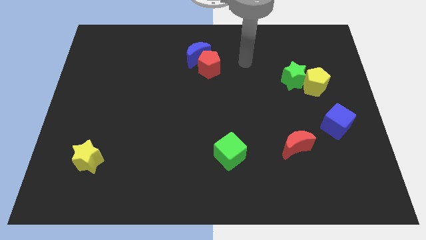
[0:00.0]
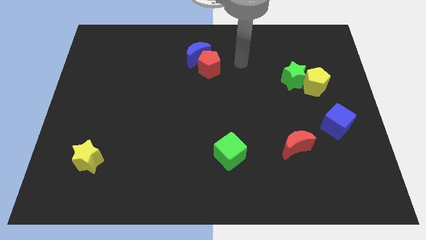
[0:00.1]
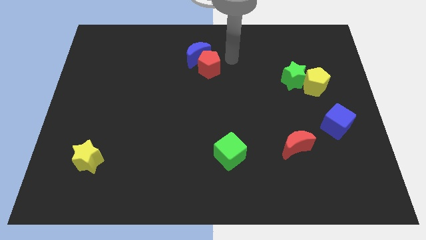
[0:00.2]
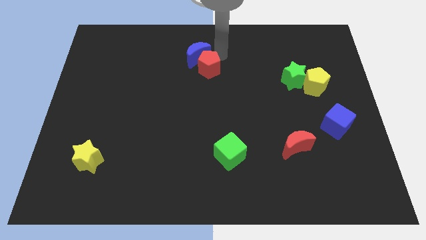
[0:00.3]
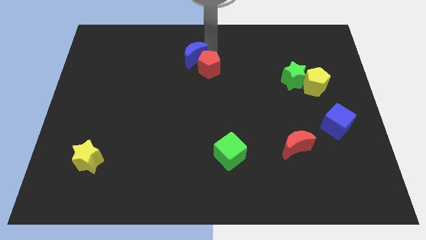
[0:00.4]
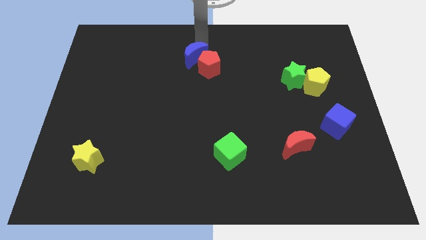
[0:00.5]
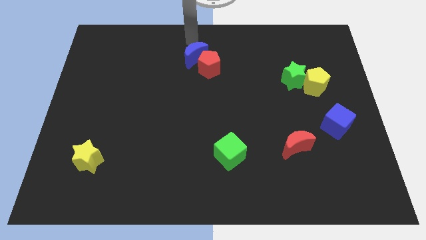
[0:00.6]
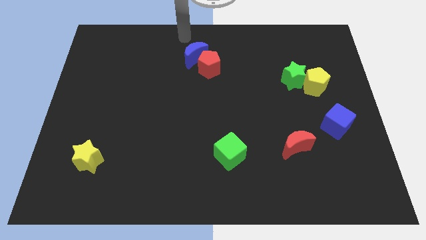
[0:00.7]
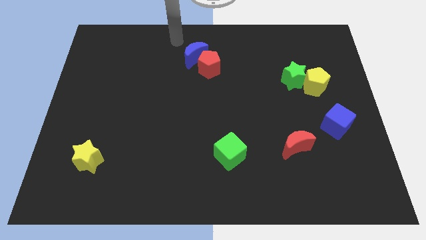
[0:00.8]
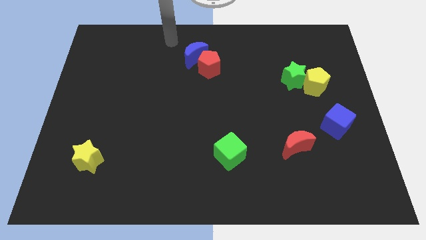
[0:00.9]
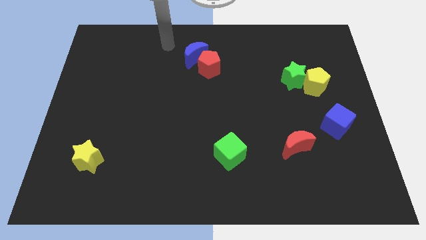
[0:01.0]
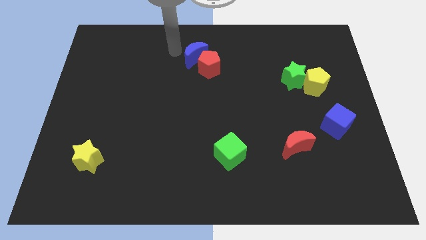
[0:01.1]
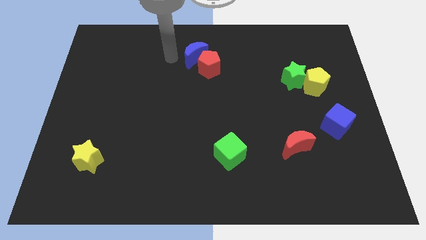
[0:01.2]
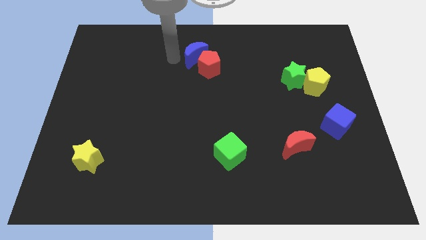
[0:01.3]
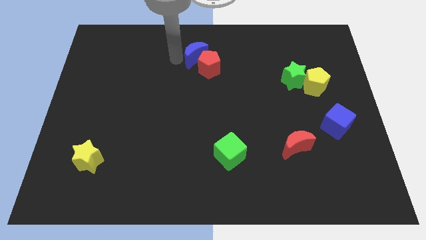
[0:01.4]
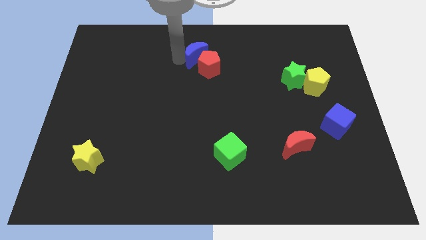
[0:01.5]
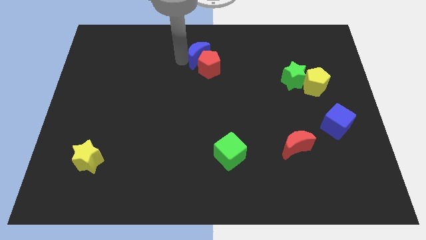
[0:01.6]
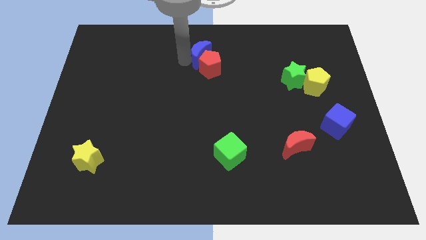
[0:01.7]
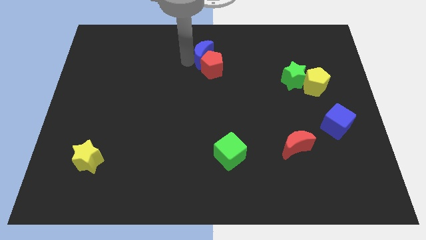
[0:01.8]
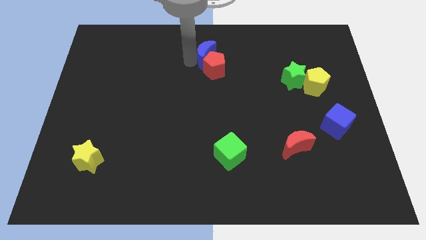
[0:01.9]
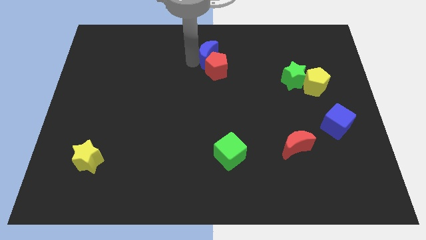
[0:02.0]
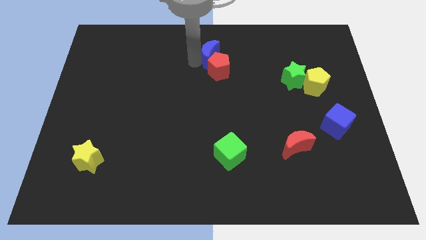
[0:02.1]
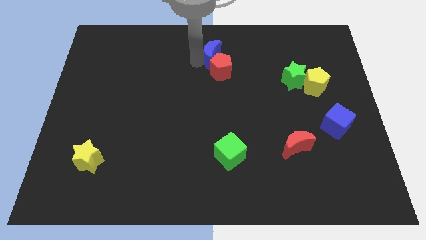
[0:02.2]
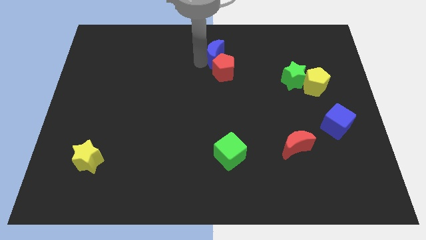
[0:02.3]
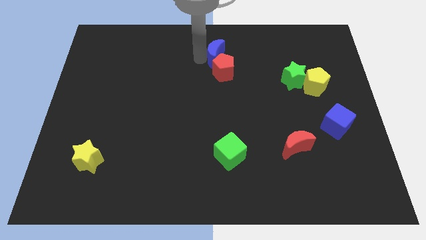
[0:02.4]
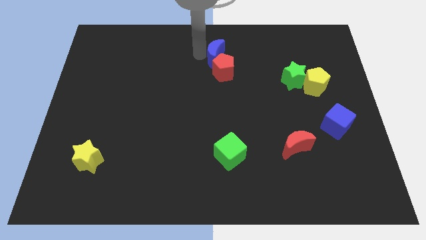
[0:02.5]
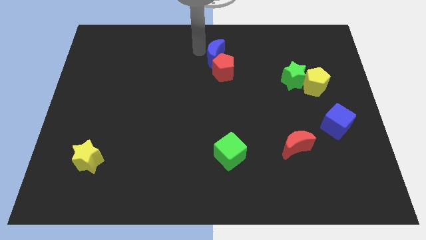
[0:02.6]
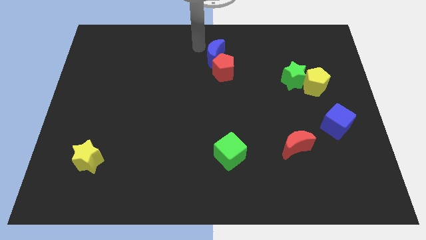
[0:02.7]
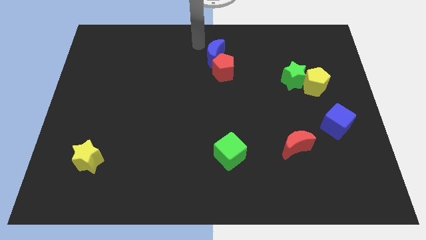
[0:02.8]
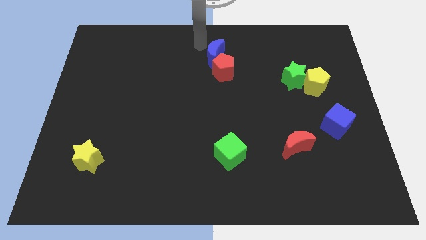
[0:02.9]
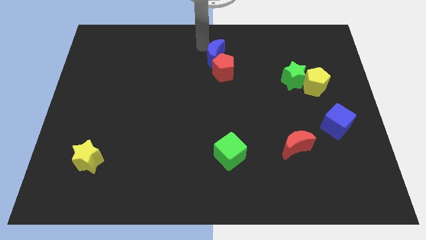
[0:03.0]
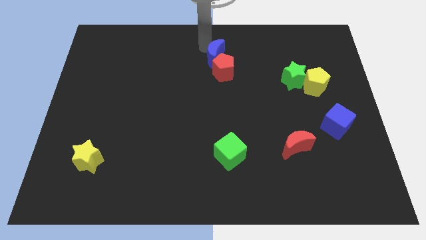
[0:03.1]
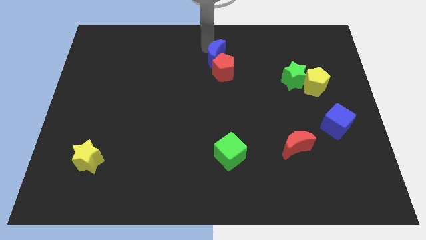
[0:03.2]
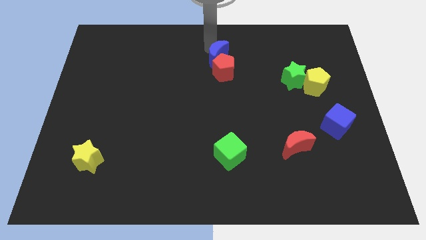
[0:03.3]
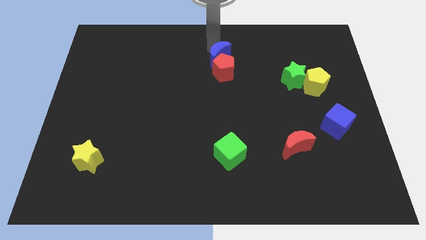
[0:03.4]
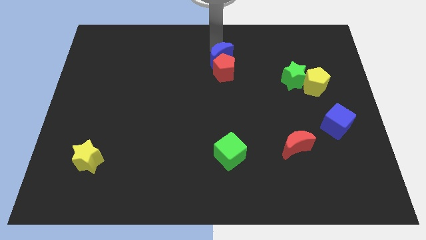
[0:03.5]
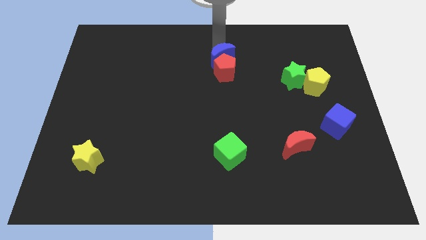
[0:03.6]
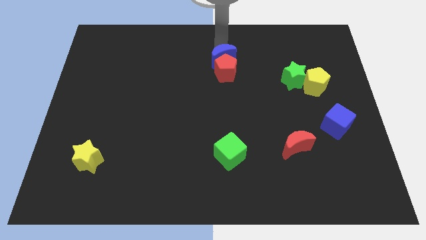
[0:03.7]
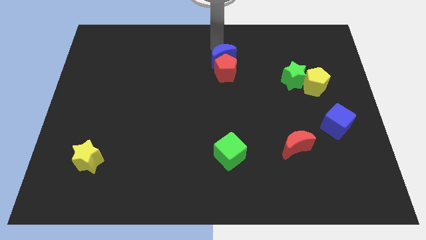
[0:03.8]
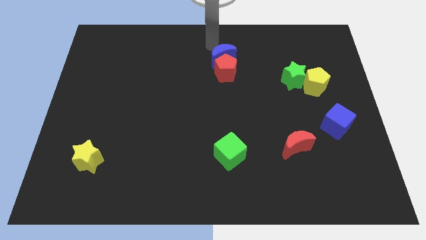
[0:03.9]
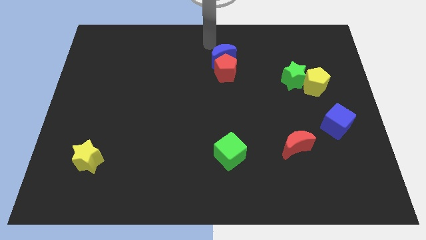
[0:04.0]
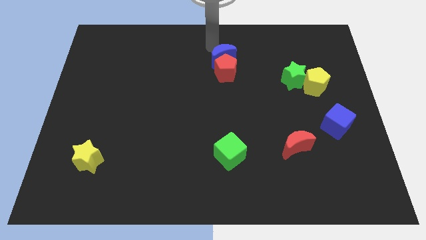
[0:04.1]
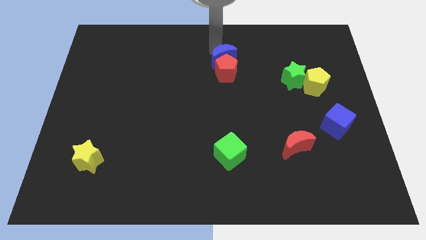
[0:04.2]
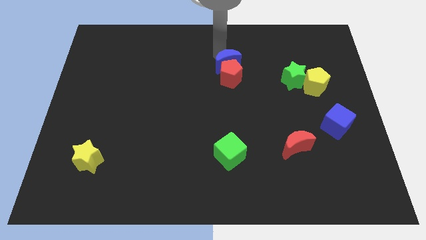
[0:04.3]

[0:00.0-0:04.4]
slide the blue moon a little bit downwards and right

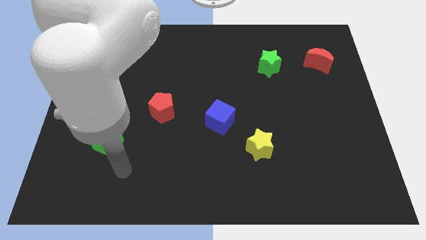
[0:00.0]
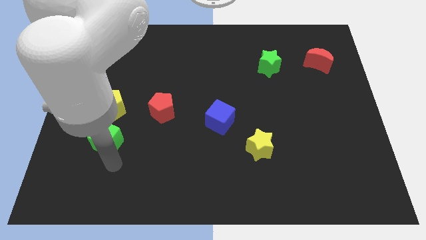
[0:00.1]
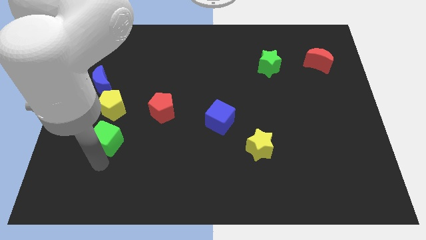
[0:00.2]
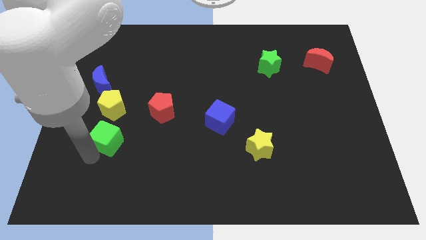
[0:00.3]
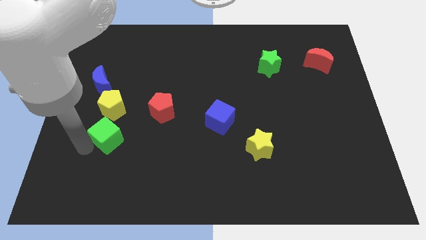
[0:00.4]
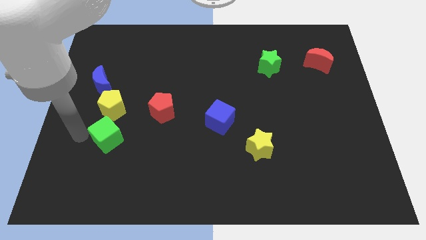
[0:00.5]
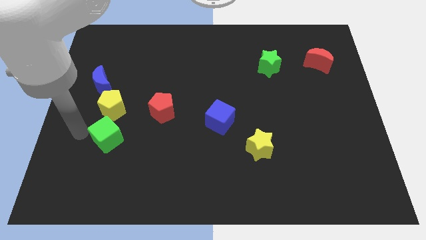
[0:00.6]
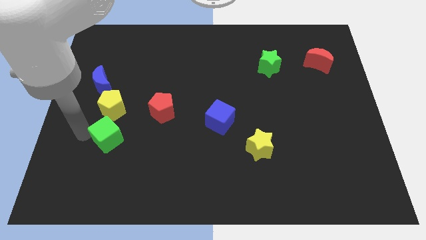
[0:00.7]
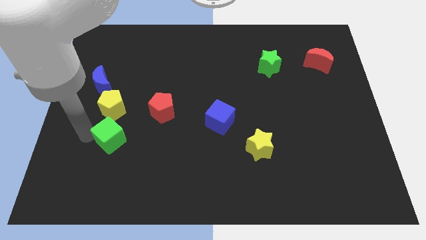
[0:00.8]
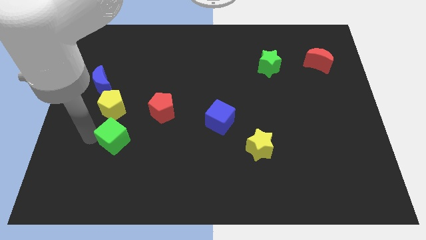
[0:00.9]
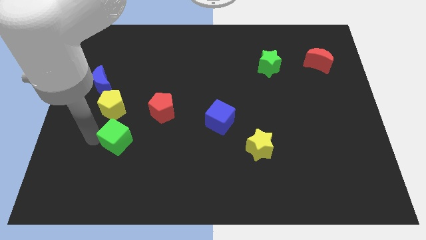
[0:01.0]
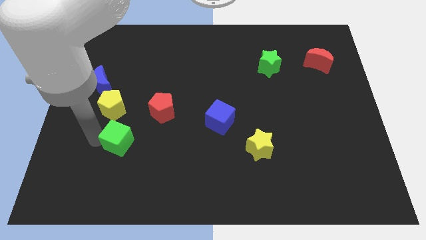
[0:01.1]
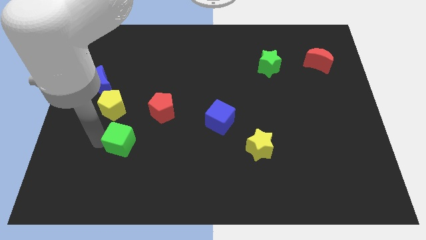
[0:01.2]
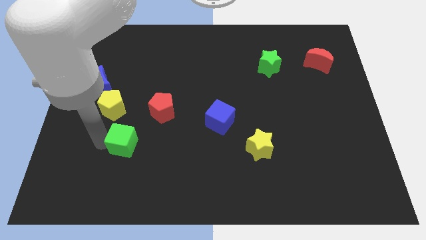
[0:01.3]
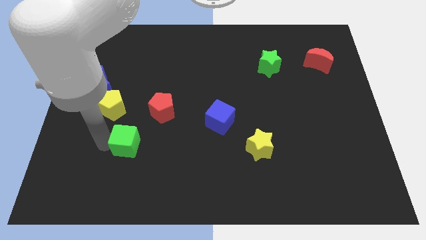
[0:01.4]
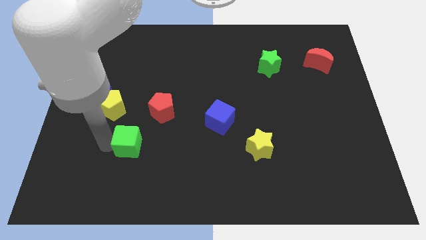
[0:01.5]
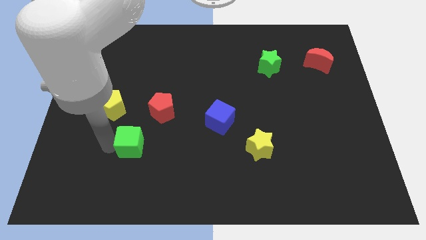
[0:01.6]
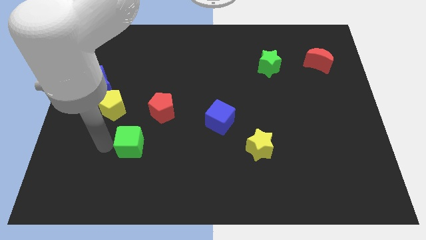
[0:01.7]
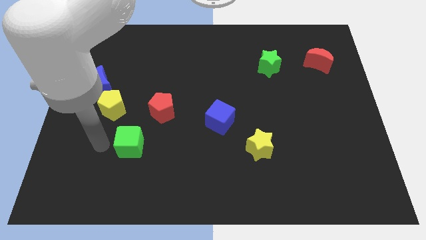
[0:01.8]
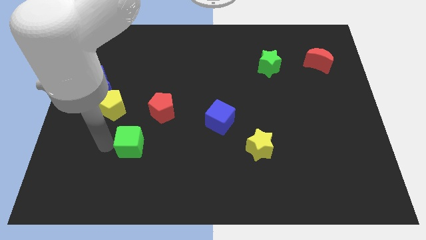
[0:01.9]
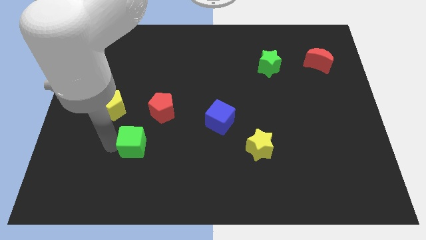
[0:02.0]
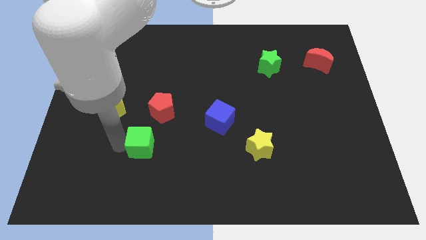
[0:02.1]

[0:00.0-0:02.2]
push the green cube a little bit right

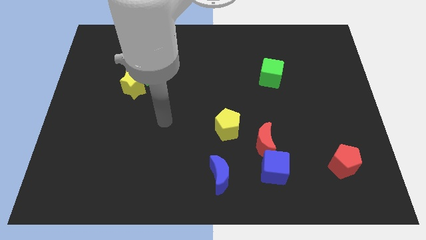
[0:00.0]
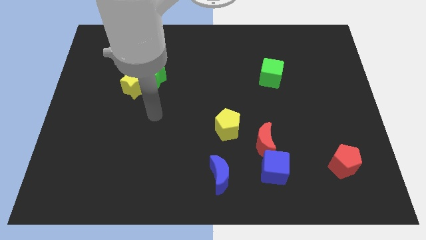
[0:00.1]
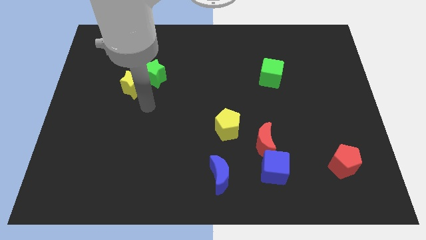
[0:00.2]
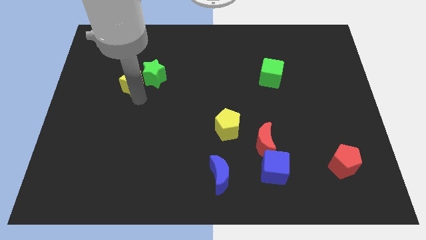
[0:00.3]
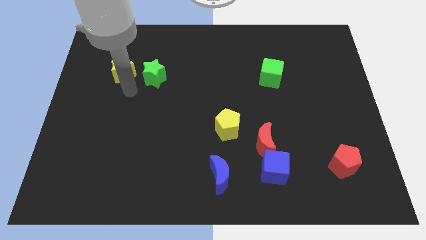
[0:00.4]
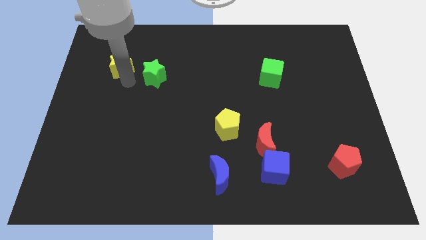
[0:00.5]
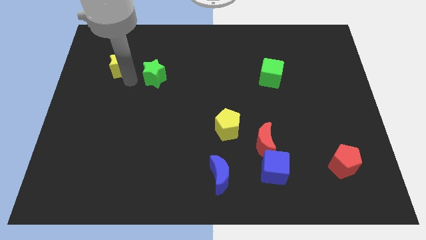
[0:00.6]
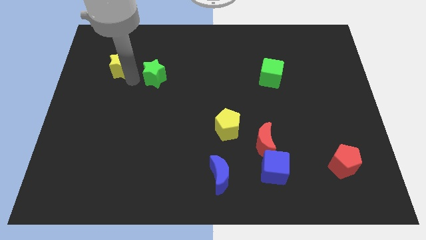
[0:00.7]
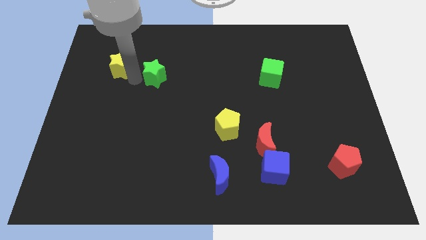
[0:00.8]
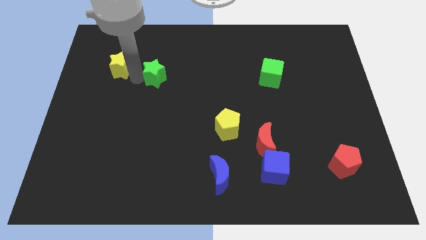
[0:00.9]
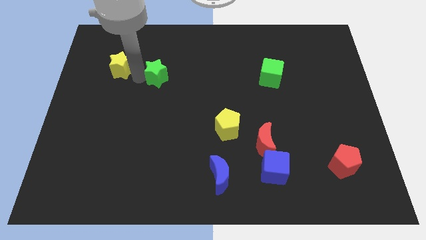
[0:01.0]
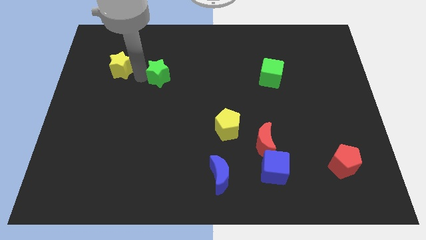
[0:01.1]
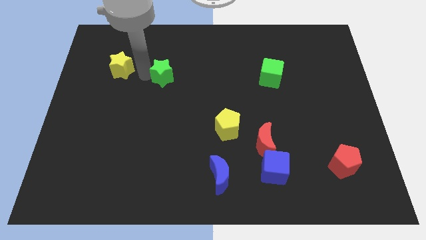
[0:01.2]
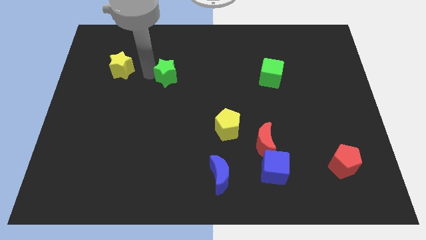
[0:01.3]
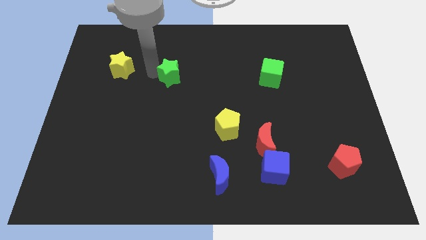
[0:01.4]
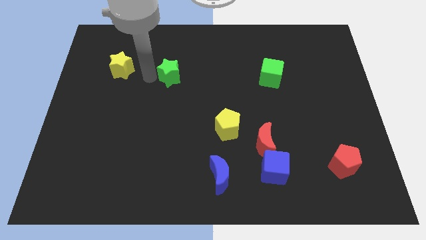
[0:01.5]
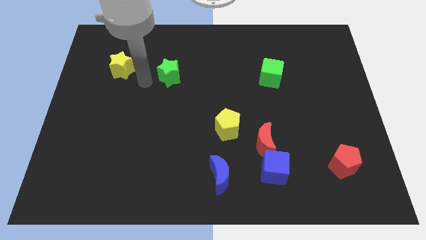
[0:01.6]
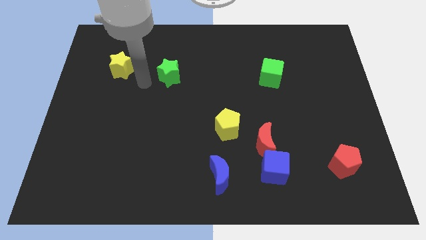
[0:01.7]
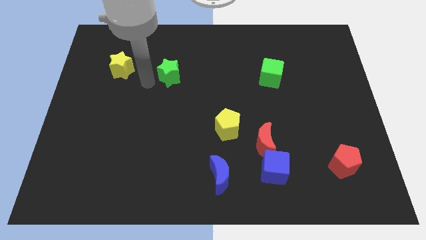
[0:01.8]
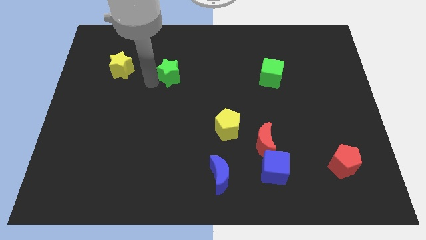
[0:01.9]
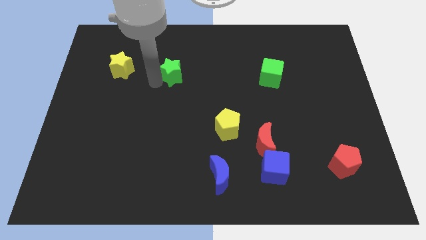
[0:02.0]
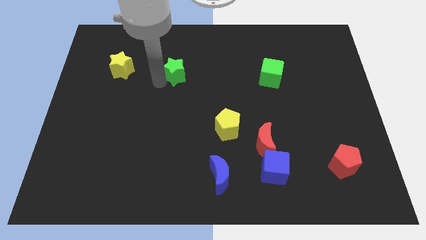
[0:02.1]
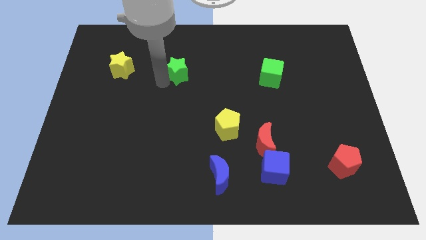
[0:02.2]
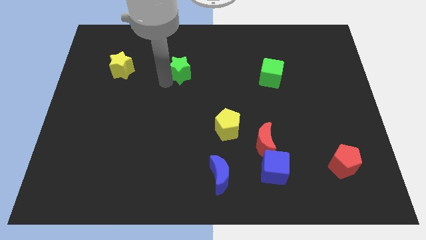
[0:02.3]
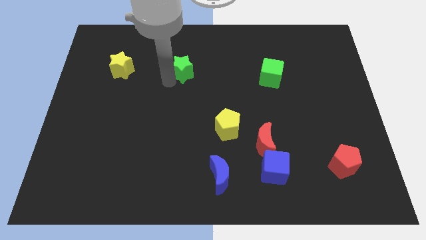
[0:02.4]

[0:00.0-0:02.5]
push the green star slightly right
